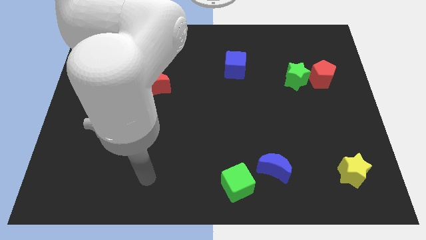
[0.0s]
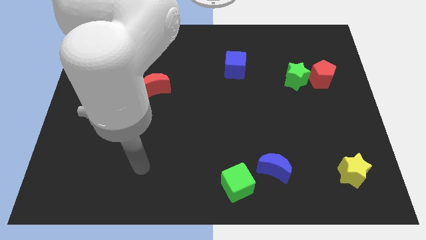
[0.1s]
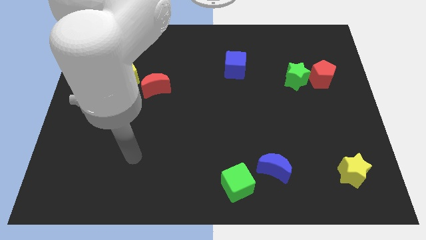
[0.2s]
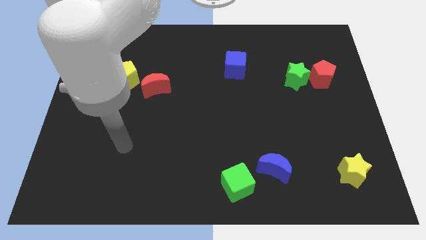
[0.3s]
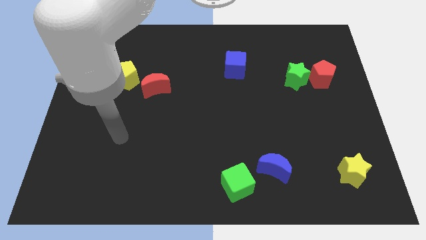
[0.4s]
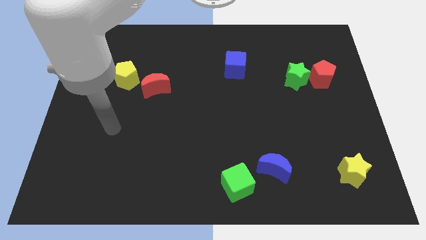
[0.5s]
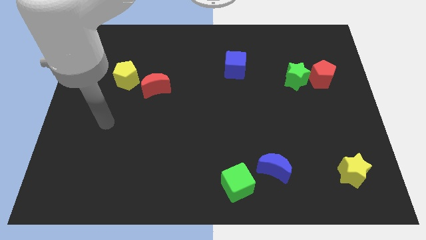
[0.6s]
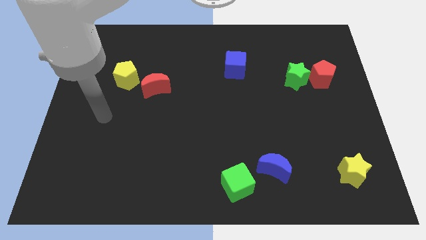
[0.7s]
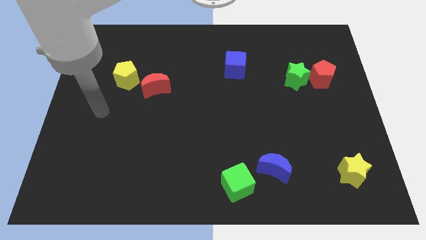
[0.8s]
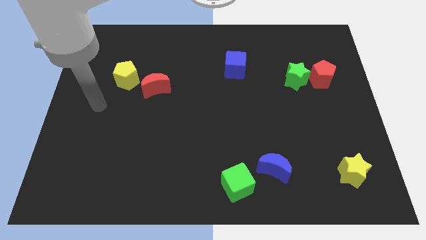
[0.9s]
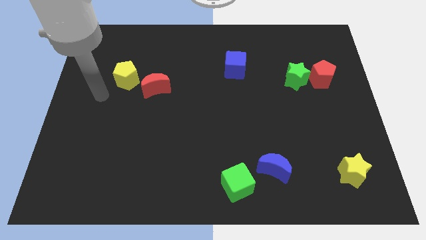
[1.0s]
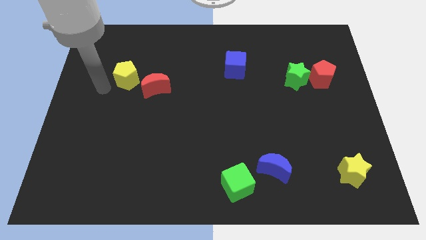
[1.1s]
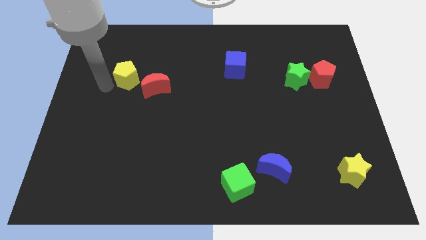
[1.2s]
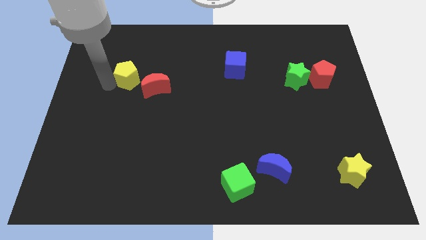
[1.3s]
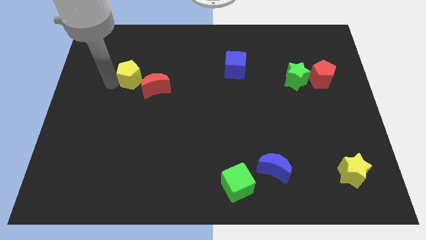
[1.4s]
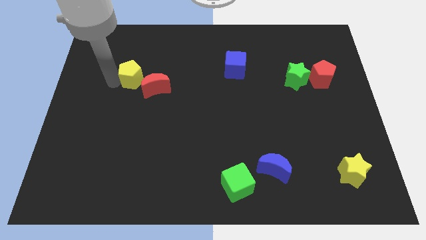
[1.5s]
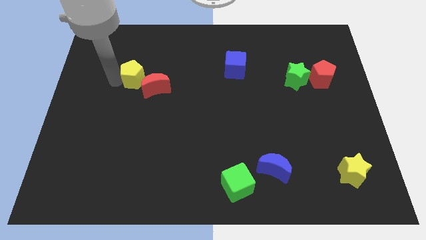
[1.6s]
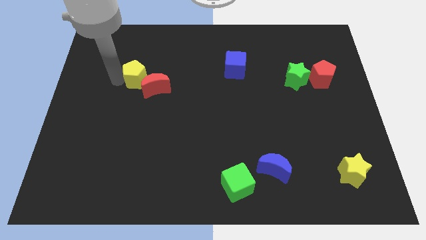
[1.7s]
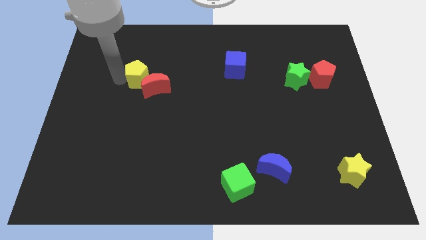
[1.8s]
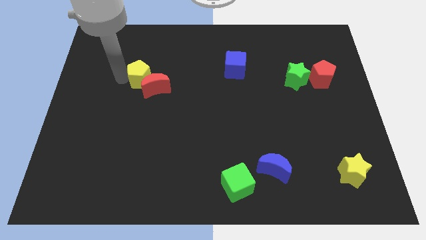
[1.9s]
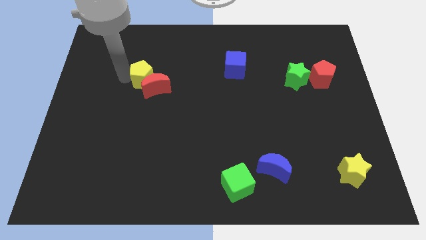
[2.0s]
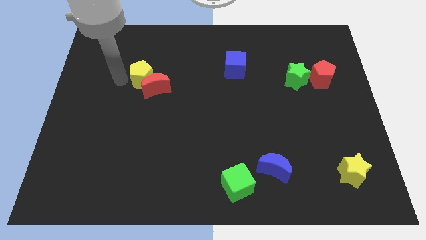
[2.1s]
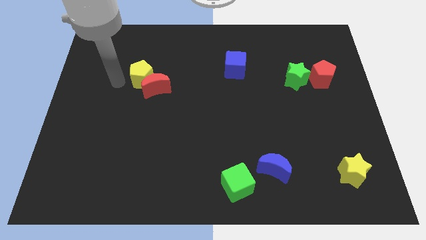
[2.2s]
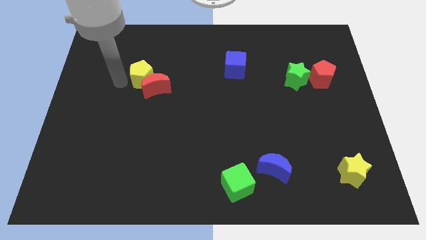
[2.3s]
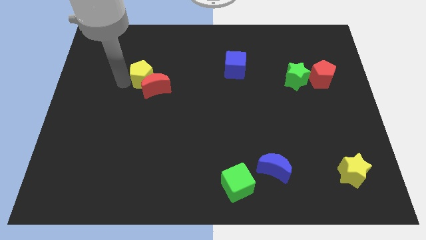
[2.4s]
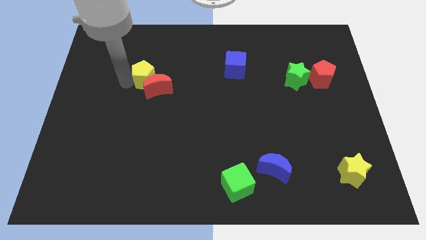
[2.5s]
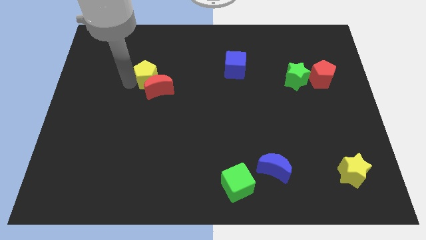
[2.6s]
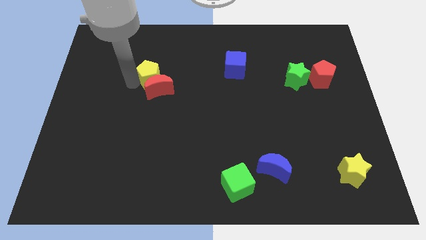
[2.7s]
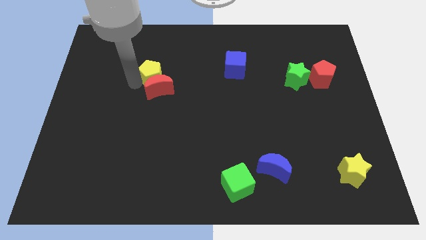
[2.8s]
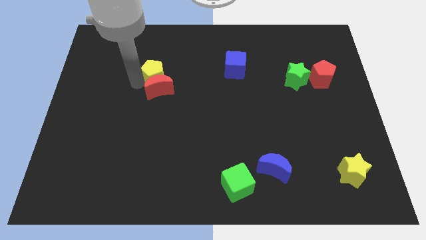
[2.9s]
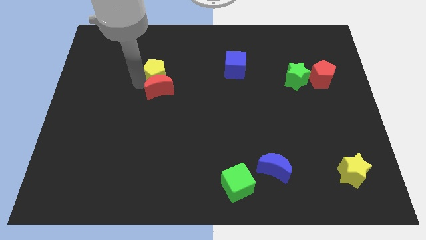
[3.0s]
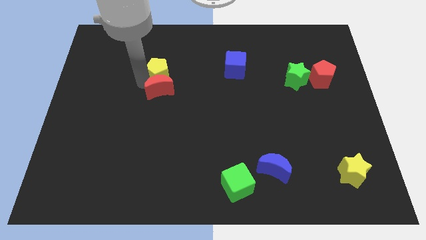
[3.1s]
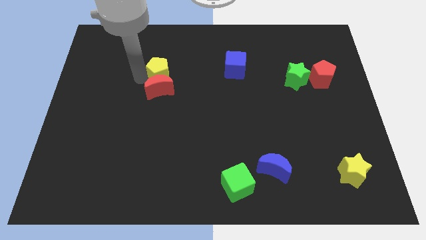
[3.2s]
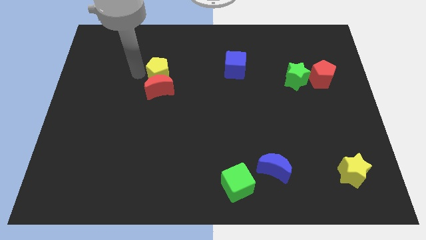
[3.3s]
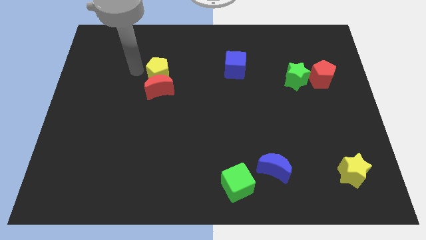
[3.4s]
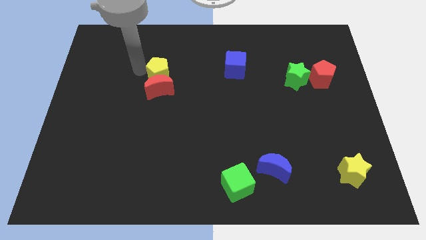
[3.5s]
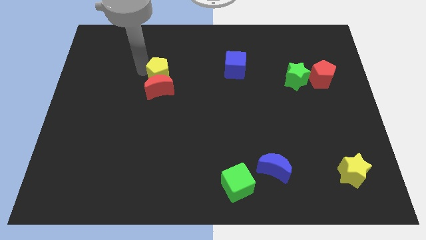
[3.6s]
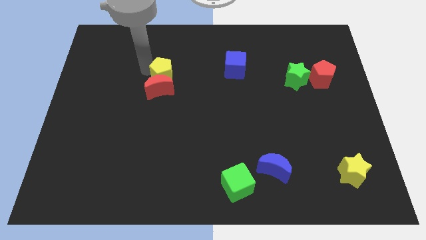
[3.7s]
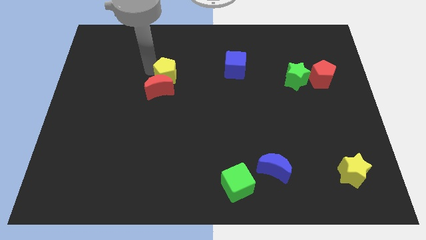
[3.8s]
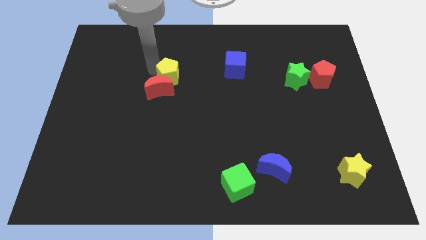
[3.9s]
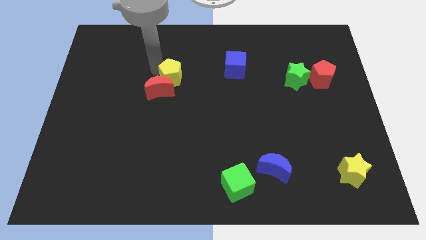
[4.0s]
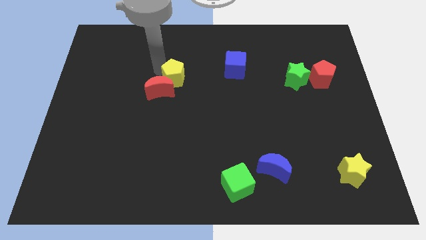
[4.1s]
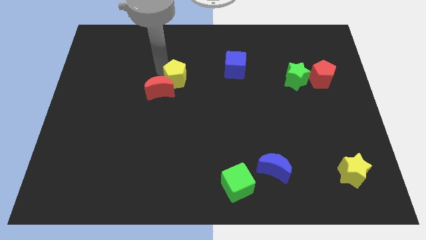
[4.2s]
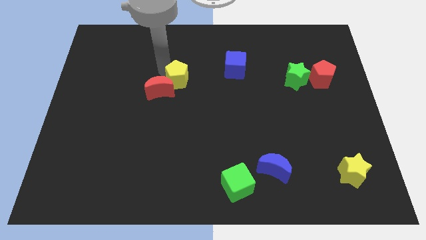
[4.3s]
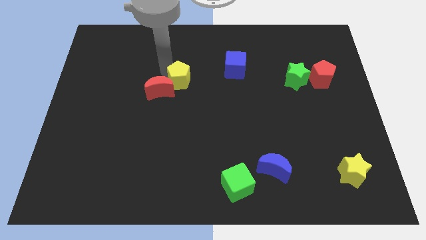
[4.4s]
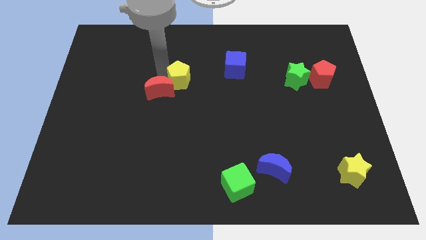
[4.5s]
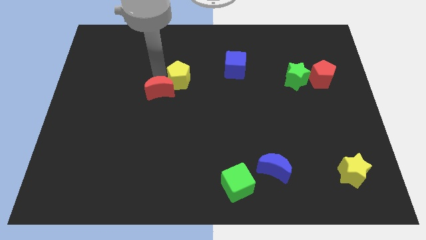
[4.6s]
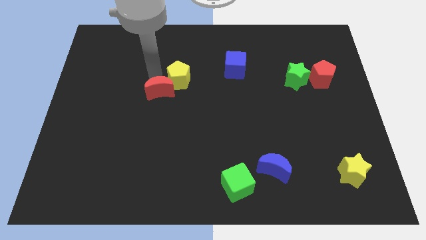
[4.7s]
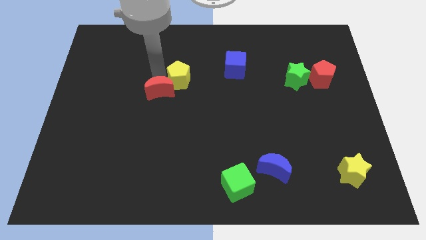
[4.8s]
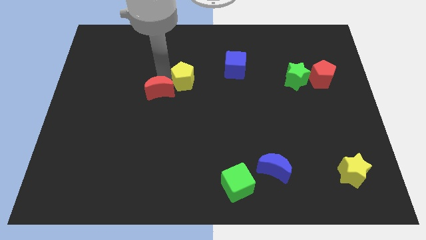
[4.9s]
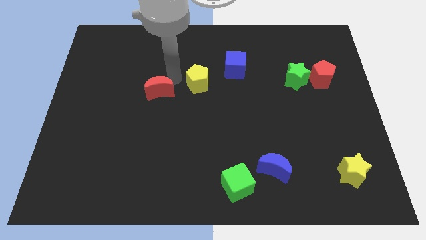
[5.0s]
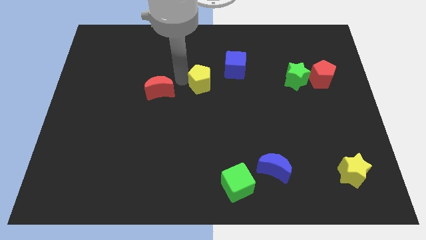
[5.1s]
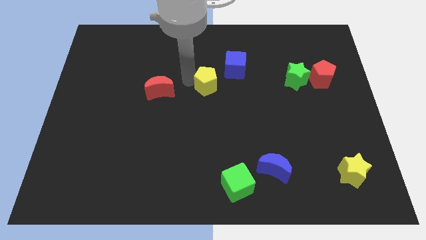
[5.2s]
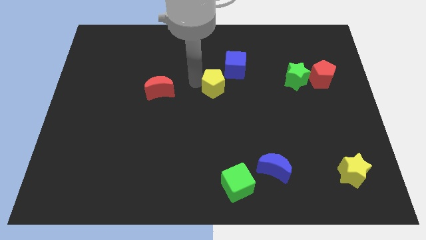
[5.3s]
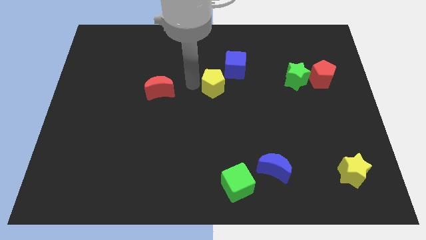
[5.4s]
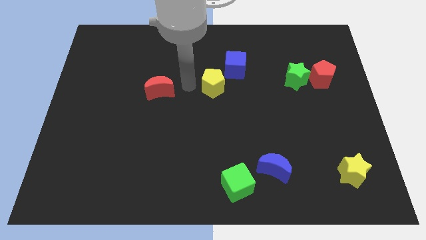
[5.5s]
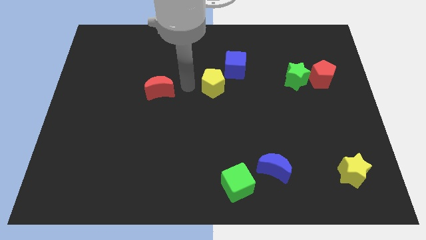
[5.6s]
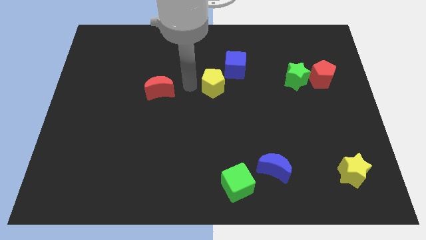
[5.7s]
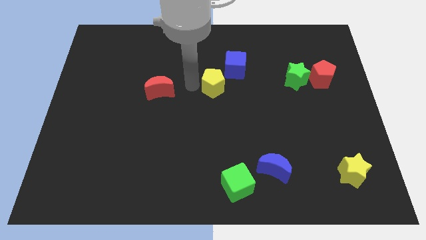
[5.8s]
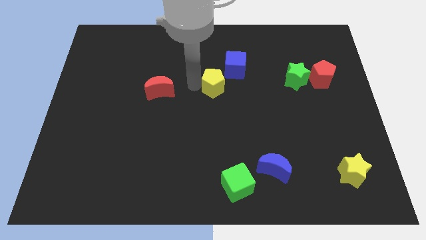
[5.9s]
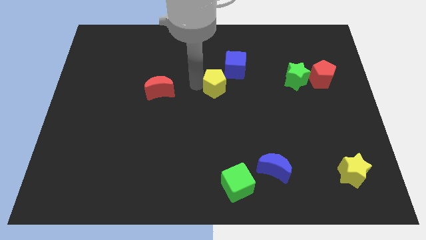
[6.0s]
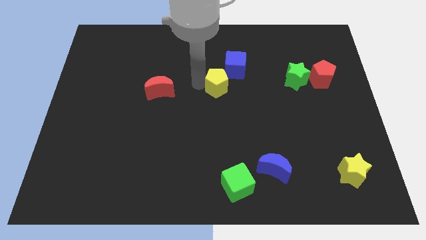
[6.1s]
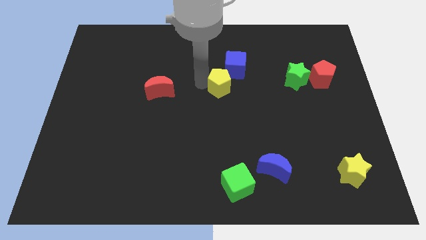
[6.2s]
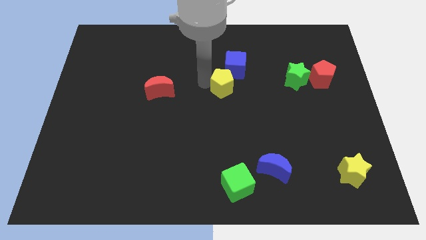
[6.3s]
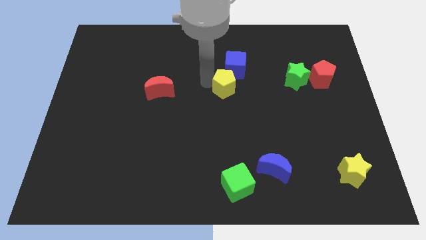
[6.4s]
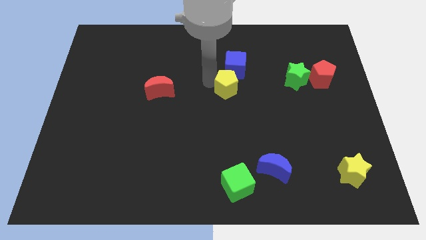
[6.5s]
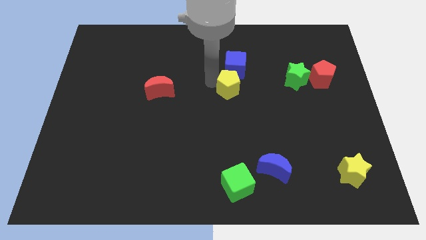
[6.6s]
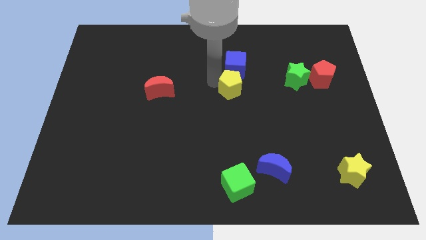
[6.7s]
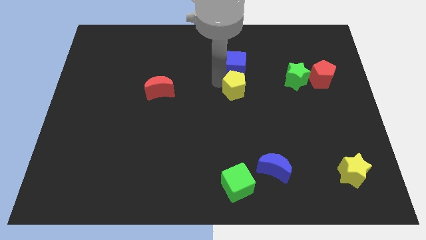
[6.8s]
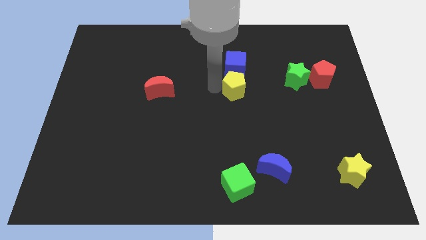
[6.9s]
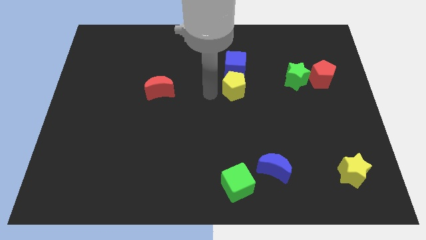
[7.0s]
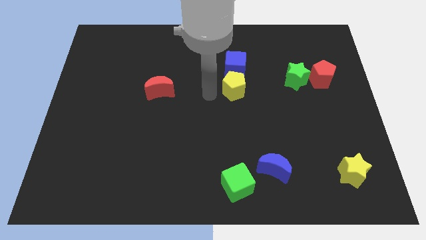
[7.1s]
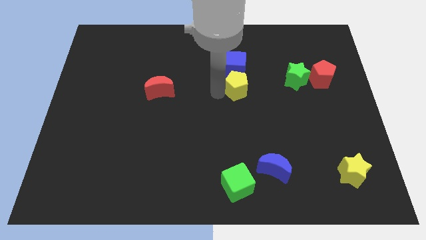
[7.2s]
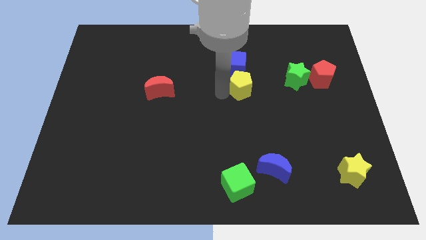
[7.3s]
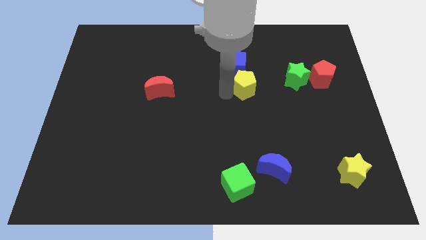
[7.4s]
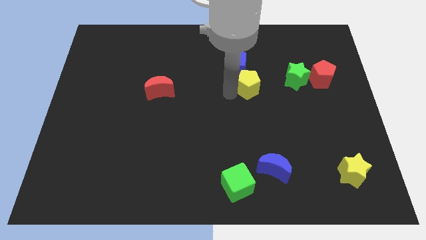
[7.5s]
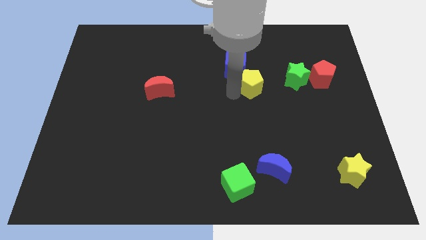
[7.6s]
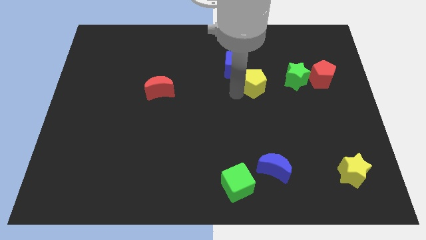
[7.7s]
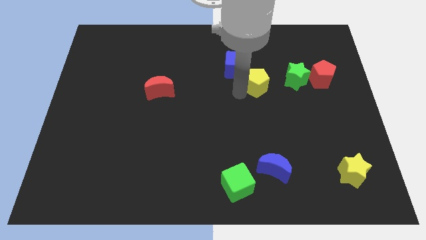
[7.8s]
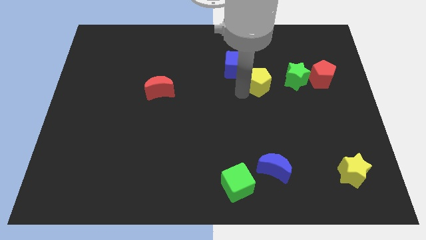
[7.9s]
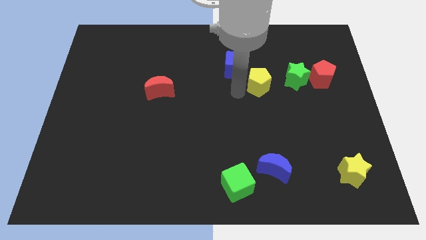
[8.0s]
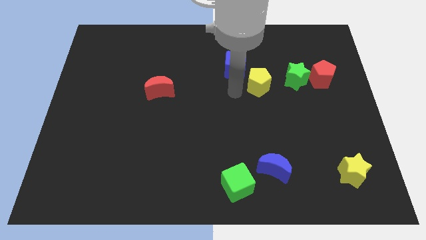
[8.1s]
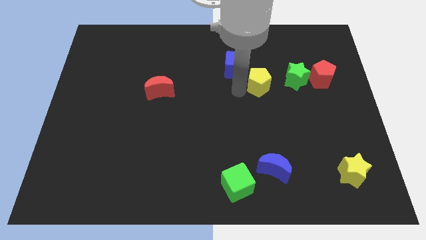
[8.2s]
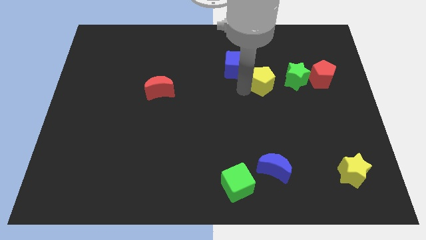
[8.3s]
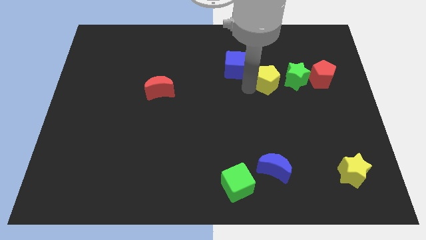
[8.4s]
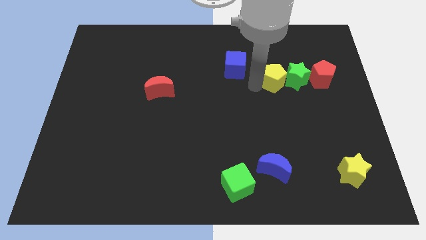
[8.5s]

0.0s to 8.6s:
push the yellow pentagon towards the green star
